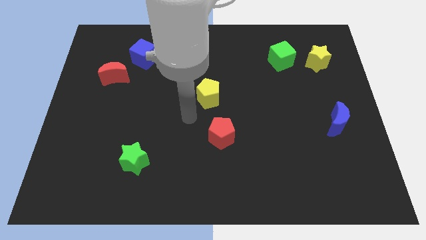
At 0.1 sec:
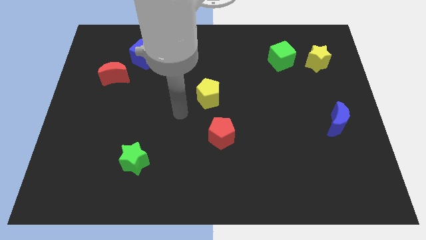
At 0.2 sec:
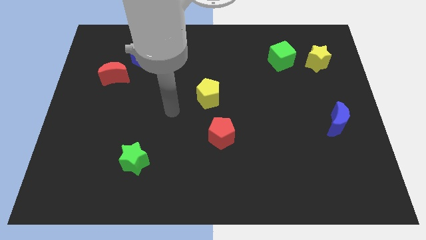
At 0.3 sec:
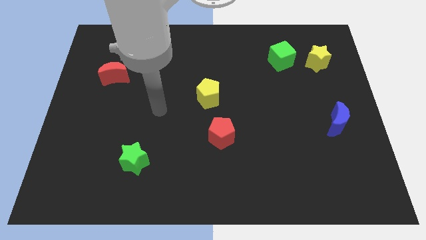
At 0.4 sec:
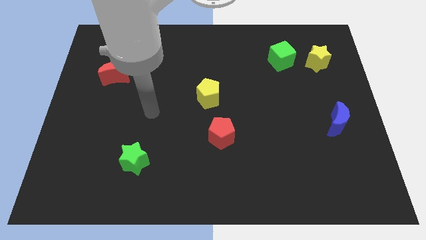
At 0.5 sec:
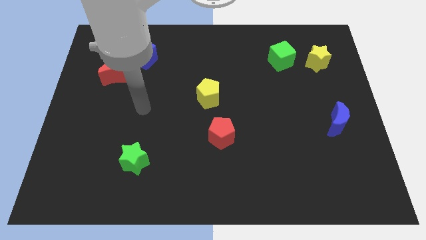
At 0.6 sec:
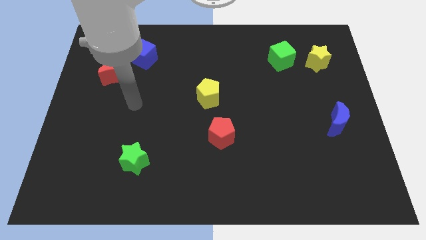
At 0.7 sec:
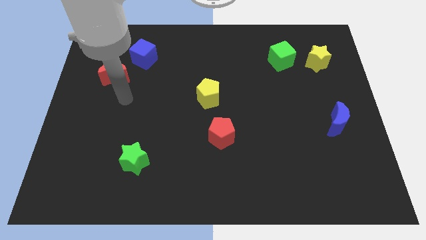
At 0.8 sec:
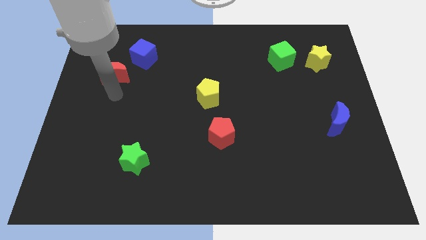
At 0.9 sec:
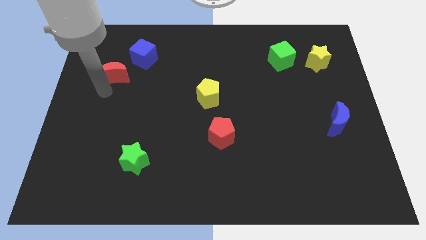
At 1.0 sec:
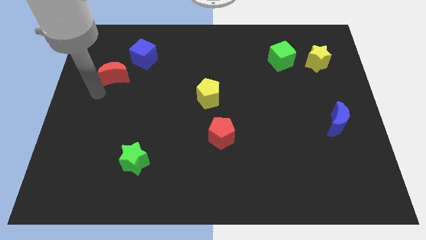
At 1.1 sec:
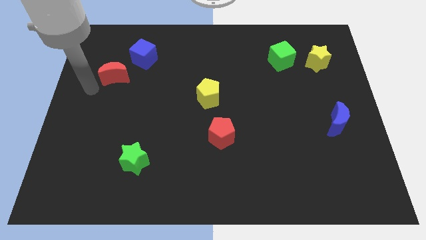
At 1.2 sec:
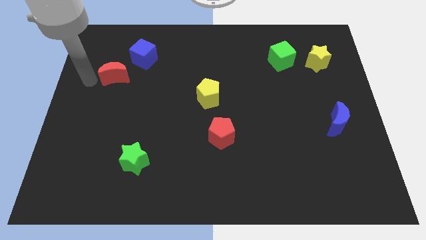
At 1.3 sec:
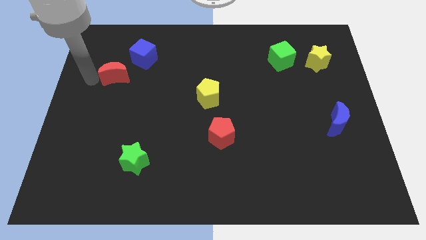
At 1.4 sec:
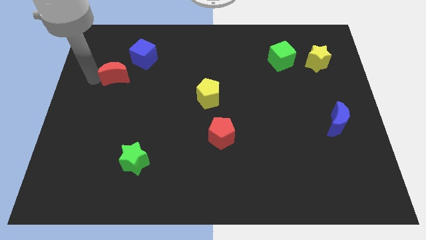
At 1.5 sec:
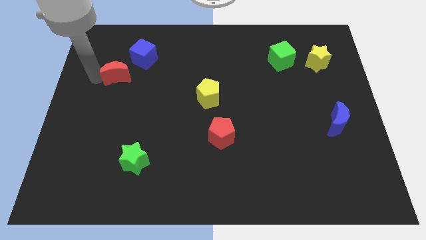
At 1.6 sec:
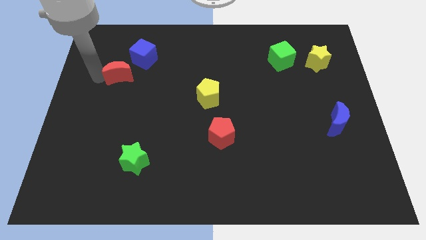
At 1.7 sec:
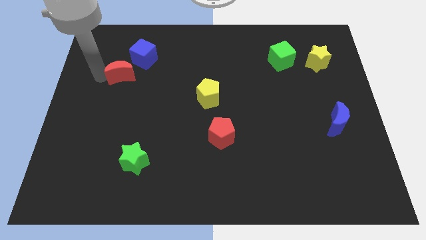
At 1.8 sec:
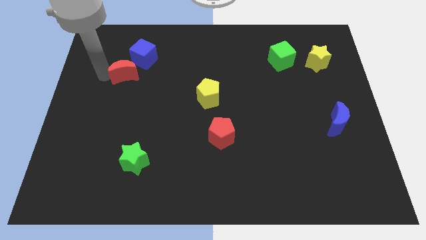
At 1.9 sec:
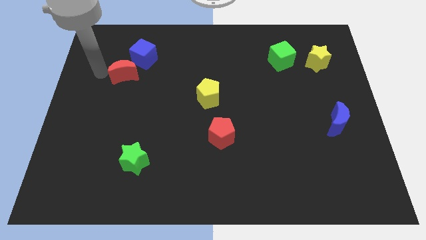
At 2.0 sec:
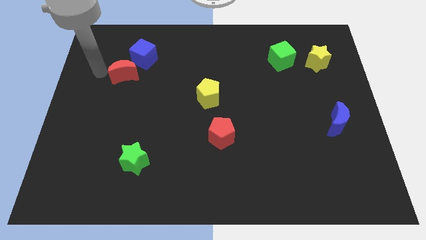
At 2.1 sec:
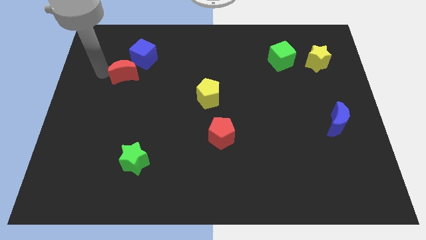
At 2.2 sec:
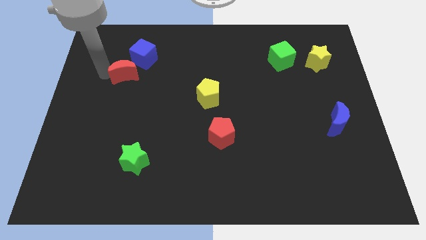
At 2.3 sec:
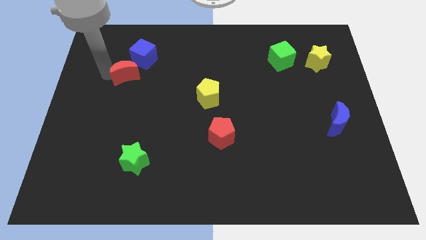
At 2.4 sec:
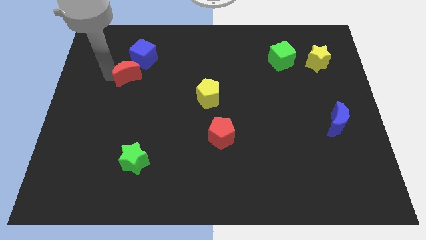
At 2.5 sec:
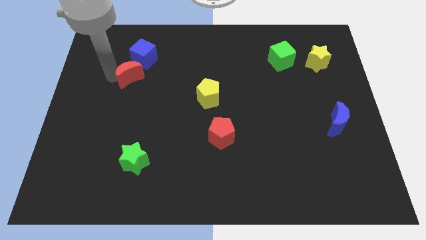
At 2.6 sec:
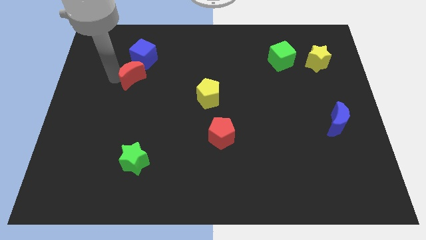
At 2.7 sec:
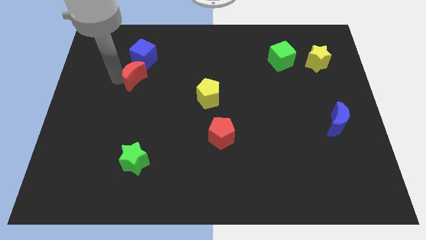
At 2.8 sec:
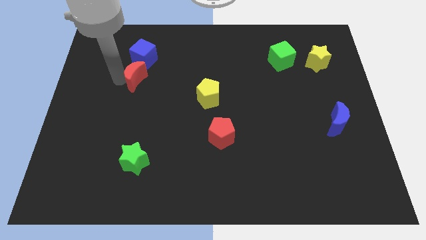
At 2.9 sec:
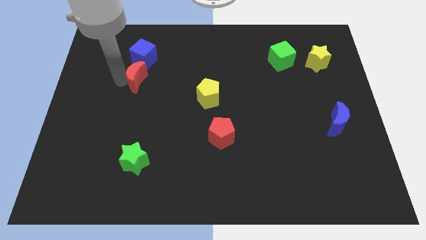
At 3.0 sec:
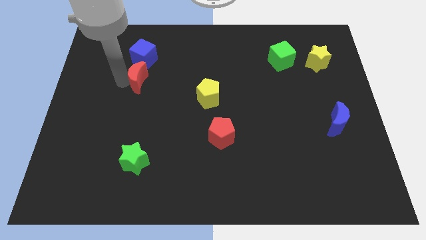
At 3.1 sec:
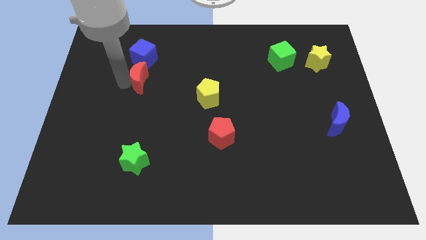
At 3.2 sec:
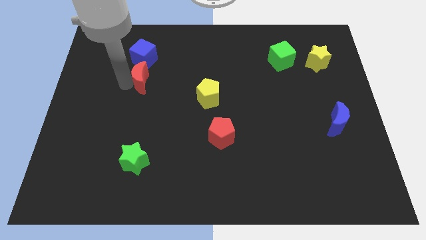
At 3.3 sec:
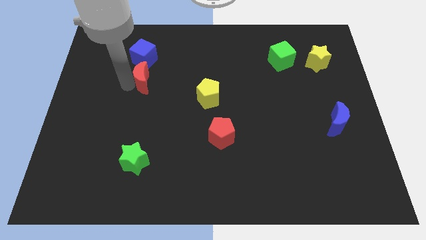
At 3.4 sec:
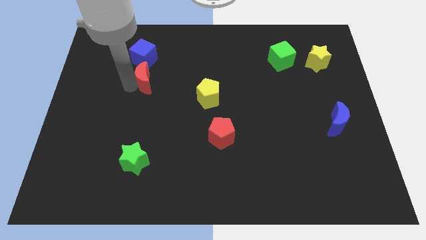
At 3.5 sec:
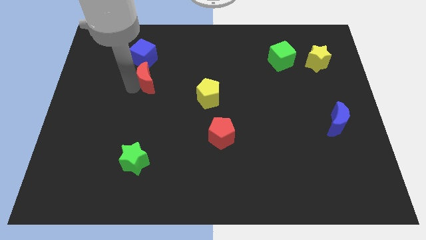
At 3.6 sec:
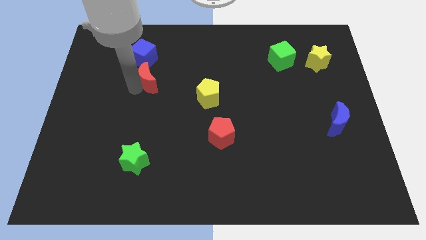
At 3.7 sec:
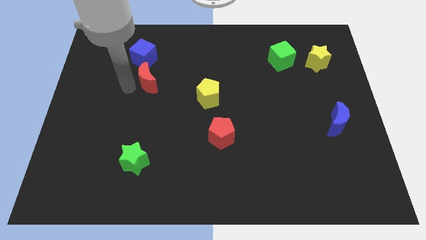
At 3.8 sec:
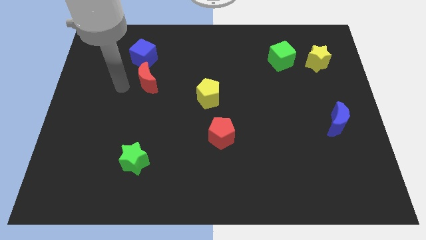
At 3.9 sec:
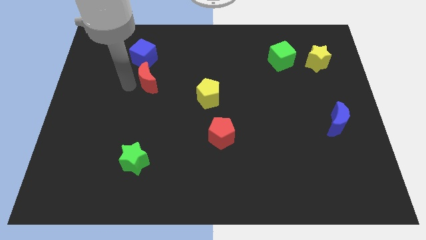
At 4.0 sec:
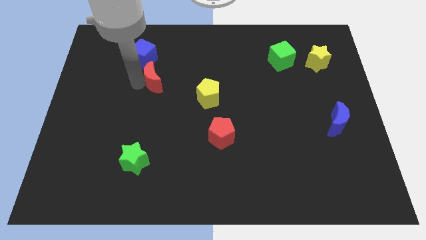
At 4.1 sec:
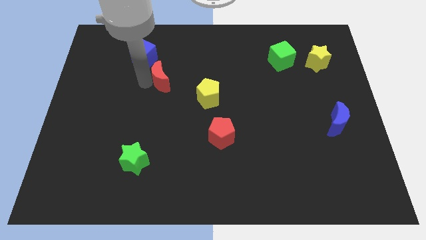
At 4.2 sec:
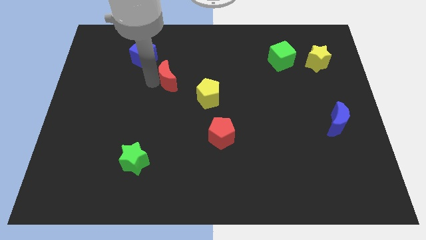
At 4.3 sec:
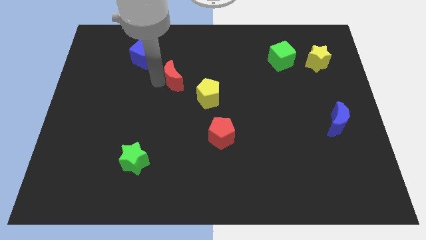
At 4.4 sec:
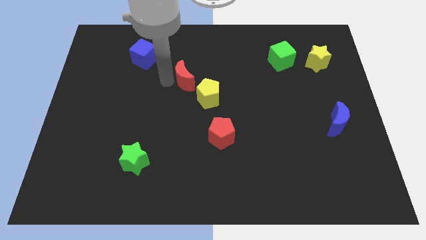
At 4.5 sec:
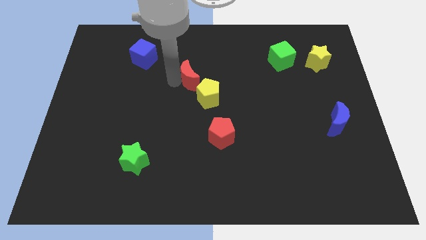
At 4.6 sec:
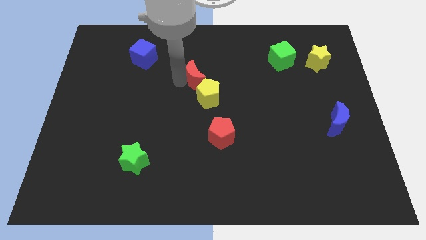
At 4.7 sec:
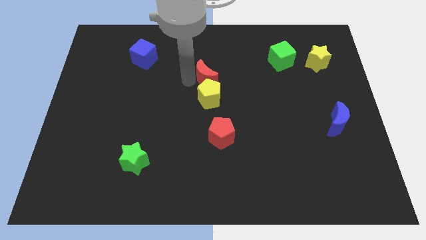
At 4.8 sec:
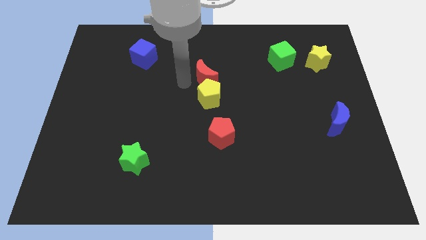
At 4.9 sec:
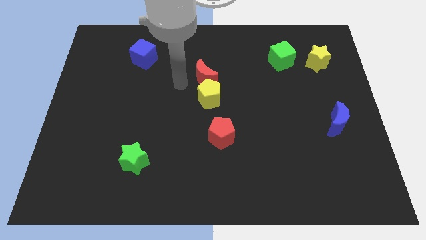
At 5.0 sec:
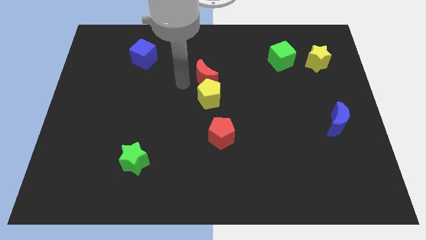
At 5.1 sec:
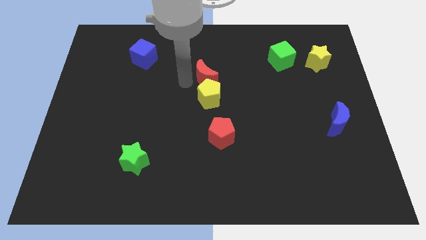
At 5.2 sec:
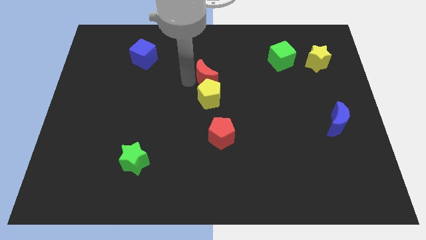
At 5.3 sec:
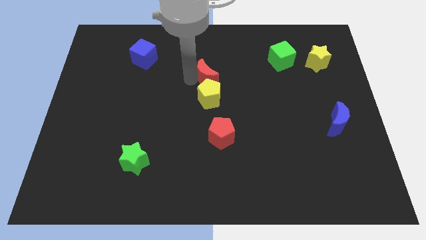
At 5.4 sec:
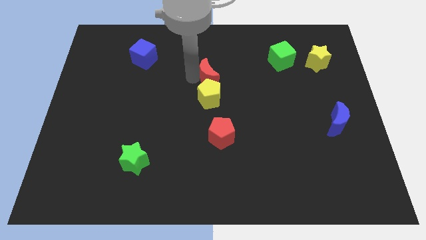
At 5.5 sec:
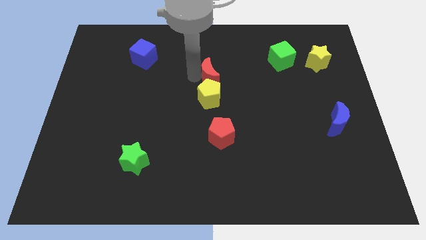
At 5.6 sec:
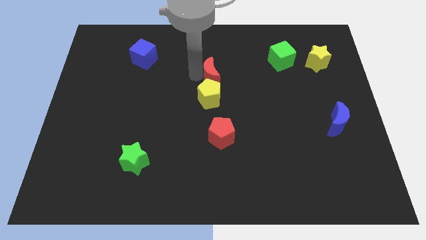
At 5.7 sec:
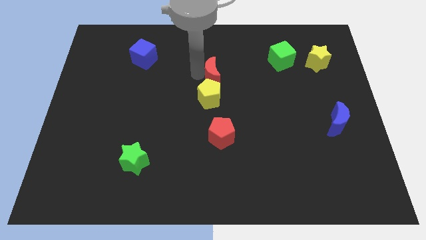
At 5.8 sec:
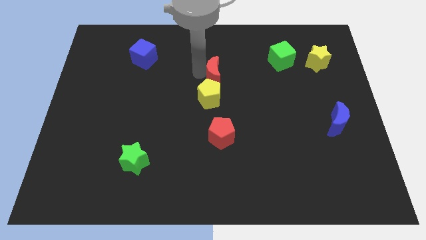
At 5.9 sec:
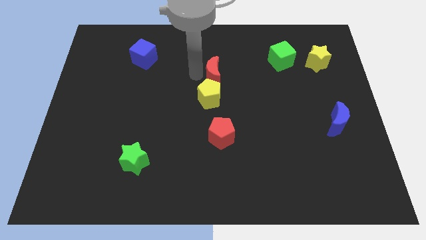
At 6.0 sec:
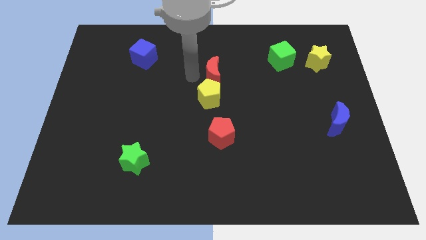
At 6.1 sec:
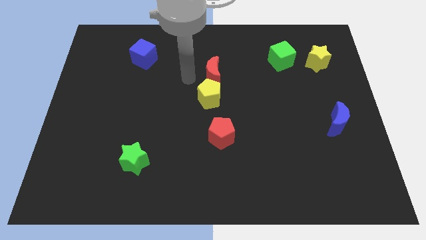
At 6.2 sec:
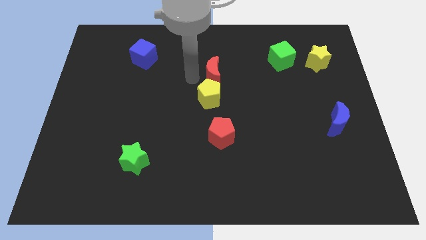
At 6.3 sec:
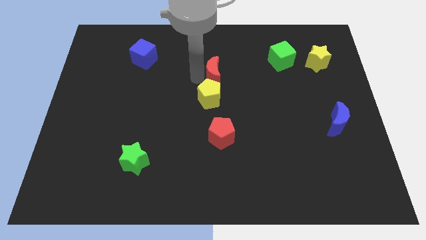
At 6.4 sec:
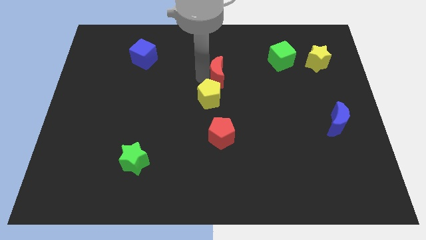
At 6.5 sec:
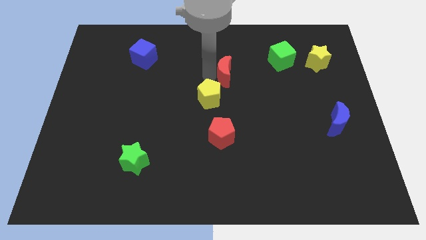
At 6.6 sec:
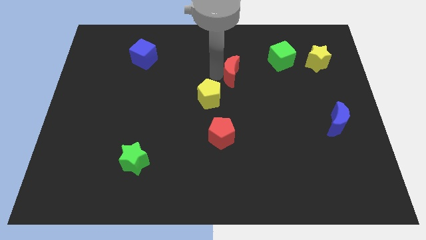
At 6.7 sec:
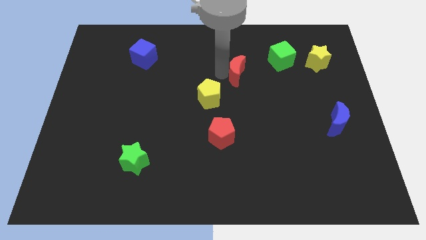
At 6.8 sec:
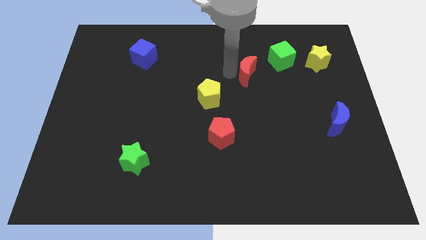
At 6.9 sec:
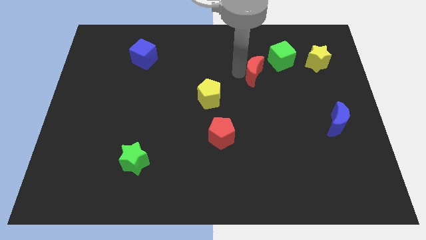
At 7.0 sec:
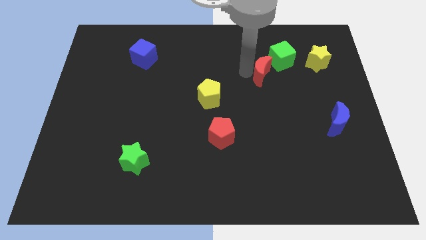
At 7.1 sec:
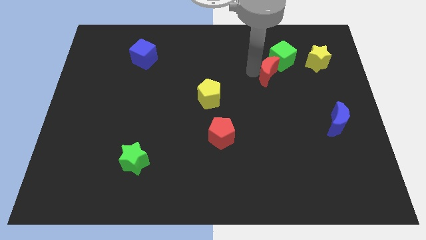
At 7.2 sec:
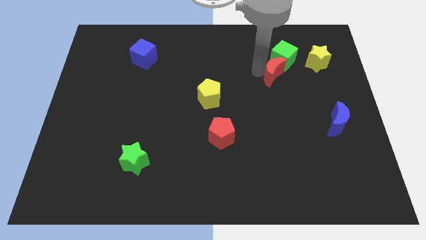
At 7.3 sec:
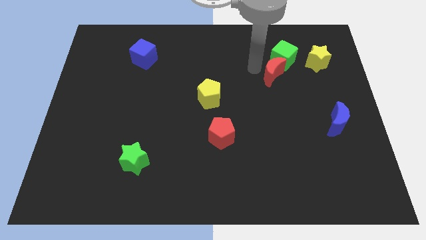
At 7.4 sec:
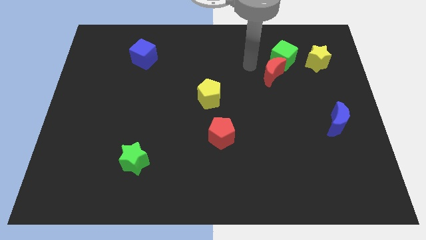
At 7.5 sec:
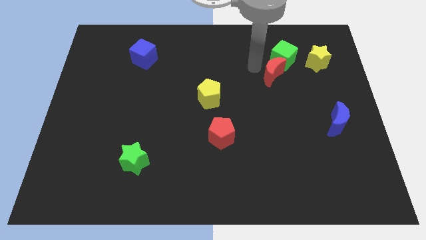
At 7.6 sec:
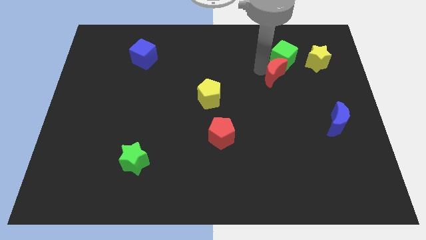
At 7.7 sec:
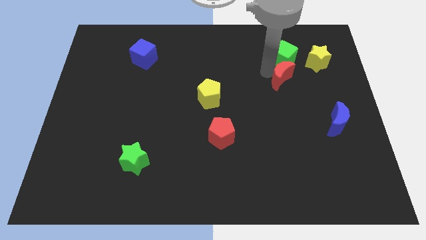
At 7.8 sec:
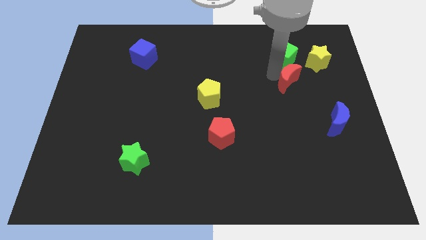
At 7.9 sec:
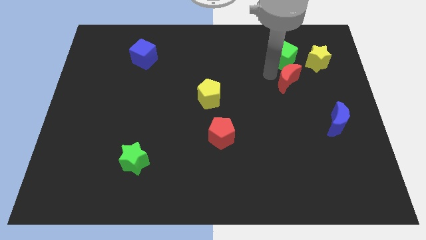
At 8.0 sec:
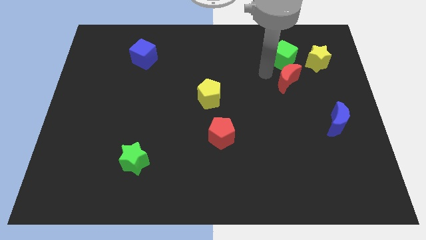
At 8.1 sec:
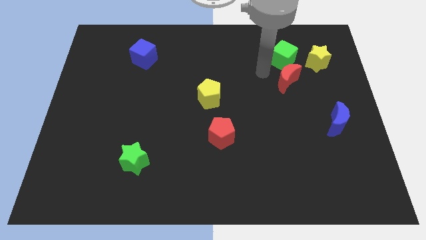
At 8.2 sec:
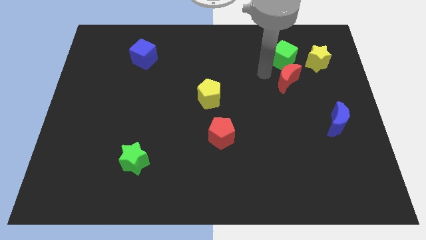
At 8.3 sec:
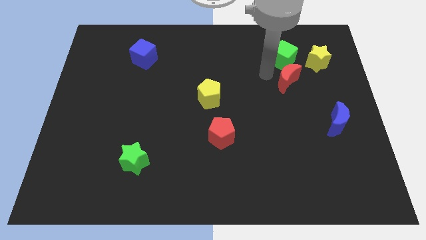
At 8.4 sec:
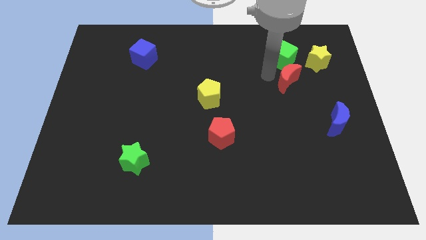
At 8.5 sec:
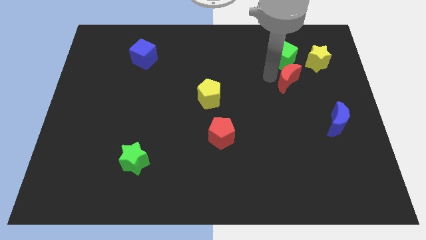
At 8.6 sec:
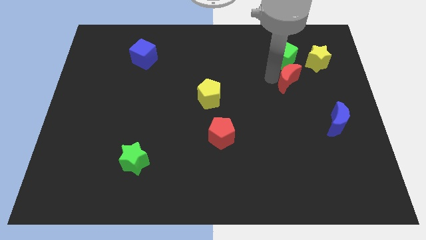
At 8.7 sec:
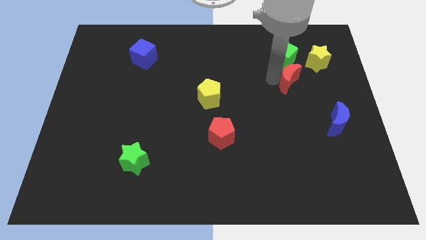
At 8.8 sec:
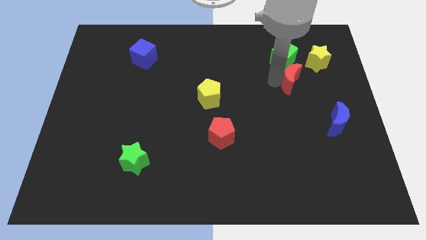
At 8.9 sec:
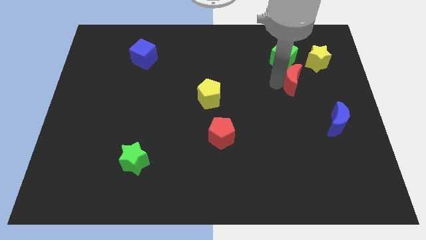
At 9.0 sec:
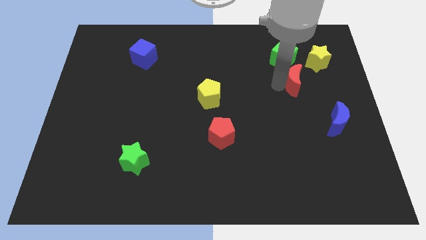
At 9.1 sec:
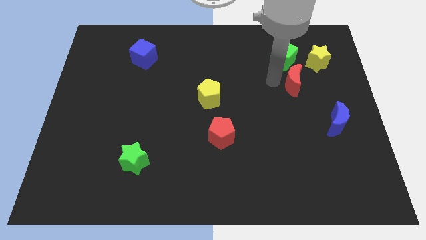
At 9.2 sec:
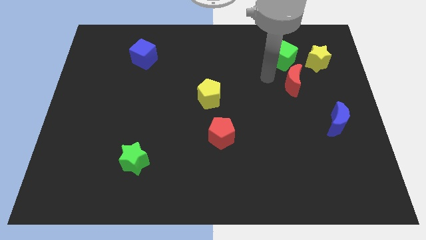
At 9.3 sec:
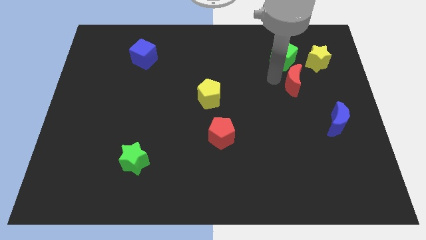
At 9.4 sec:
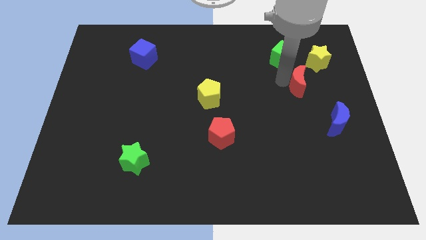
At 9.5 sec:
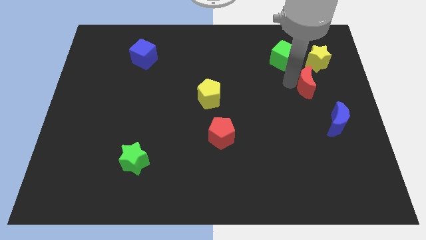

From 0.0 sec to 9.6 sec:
slide the red moon to the bottom of the yellow star
